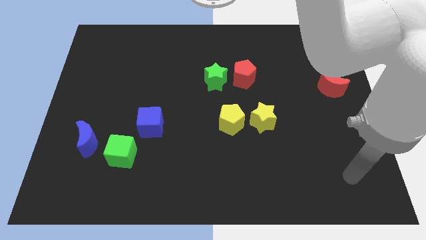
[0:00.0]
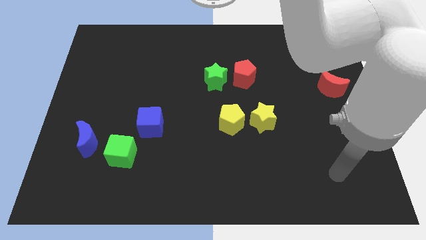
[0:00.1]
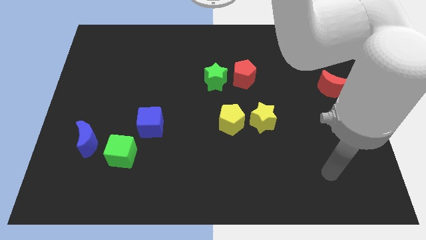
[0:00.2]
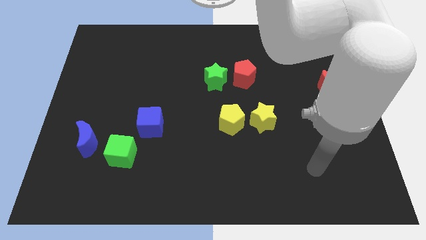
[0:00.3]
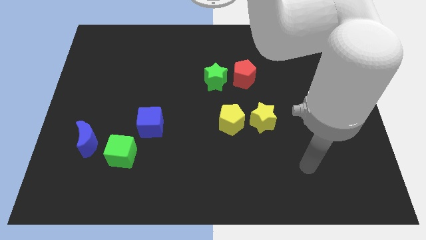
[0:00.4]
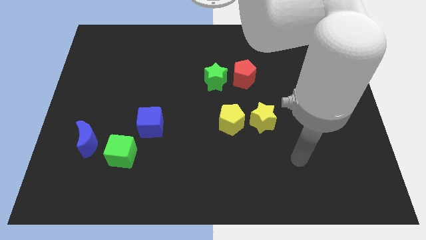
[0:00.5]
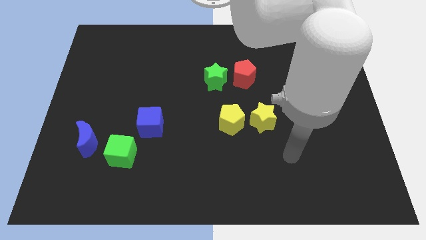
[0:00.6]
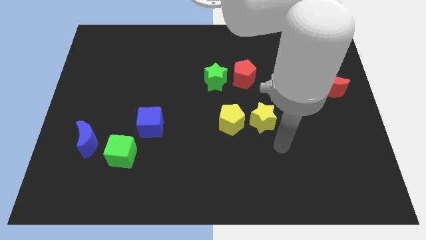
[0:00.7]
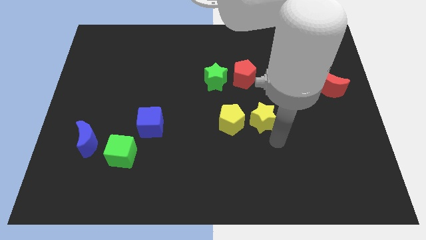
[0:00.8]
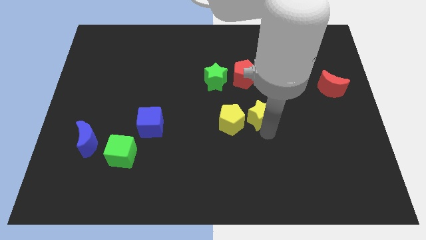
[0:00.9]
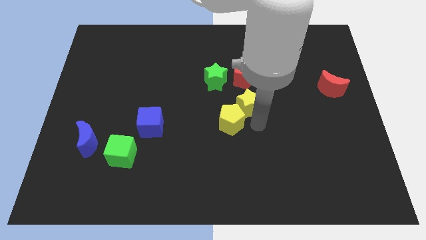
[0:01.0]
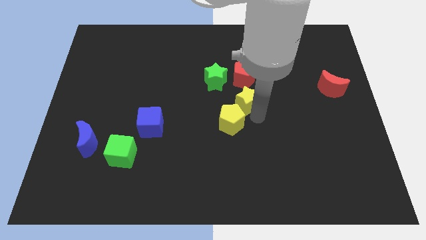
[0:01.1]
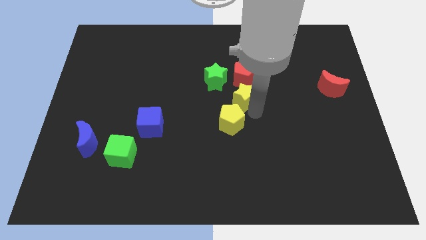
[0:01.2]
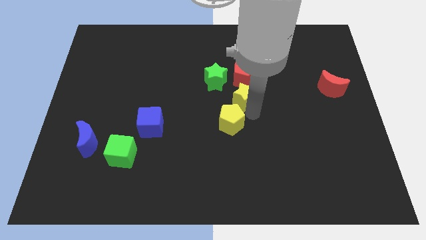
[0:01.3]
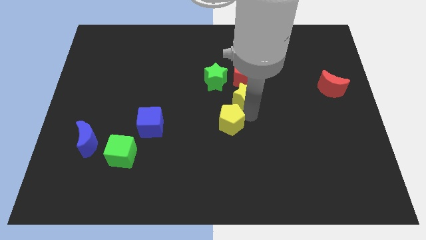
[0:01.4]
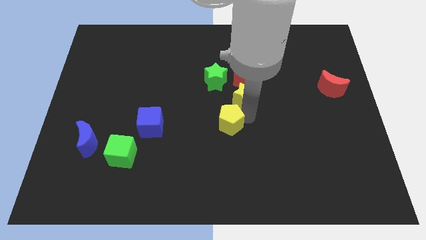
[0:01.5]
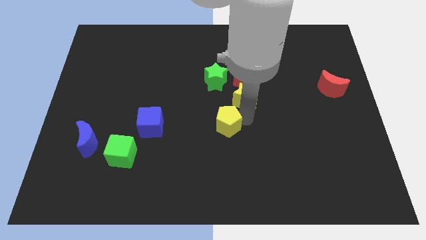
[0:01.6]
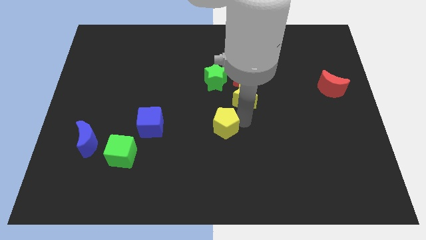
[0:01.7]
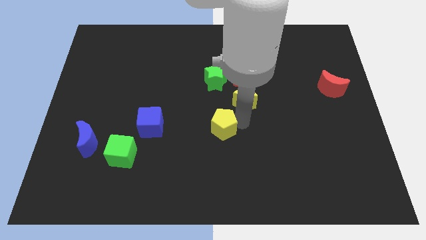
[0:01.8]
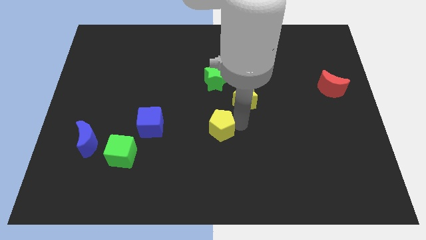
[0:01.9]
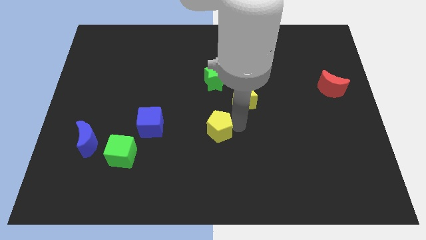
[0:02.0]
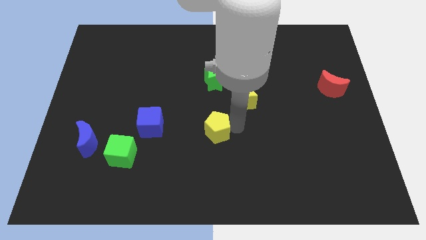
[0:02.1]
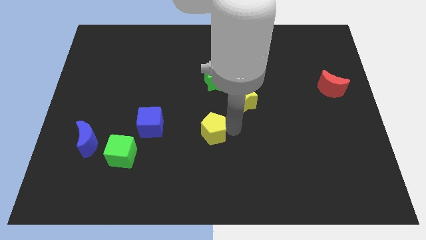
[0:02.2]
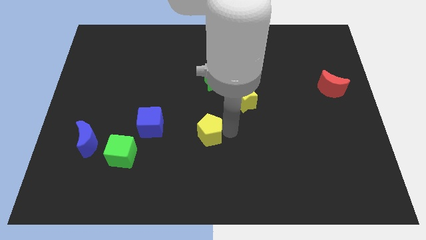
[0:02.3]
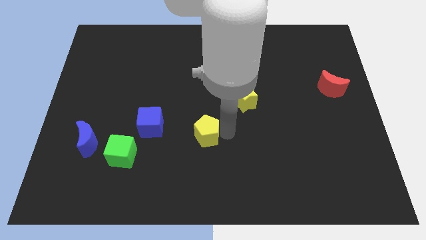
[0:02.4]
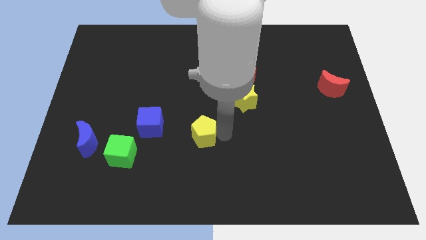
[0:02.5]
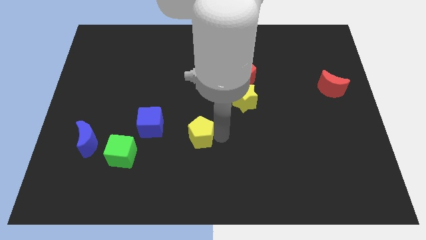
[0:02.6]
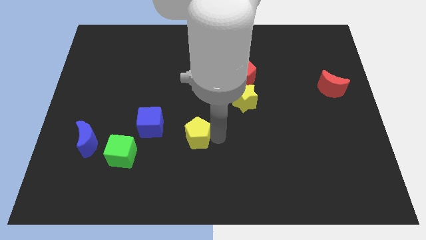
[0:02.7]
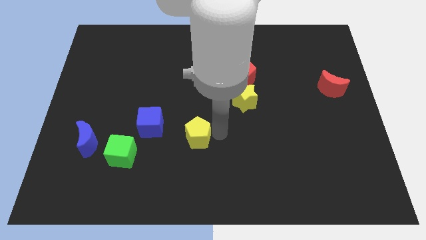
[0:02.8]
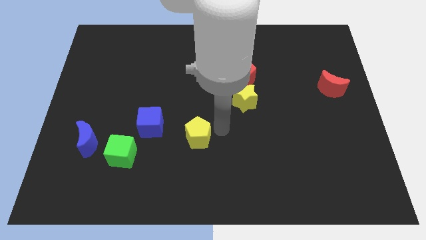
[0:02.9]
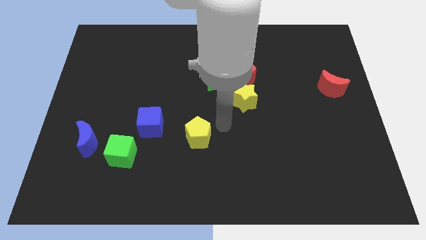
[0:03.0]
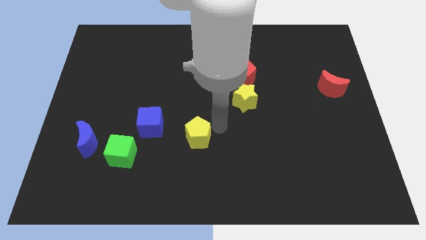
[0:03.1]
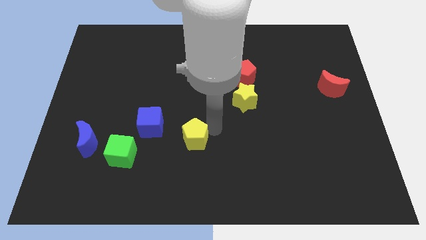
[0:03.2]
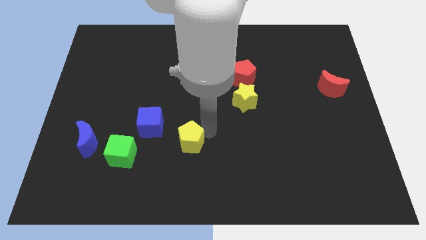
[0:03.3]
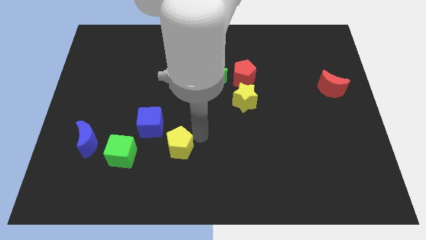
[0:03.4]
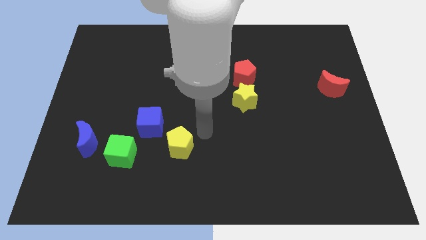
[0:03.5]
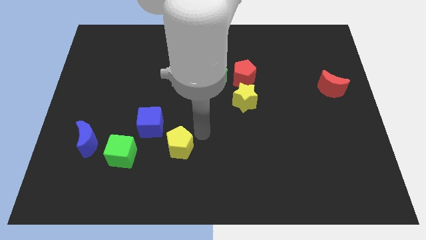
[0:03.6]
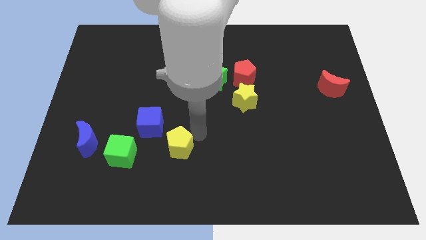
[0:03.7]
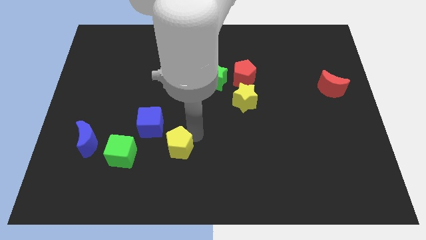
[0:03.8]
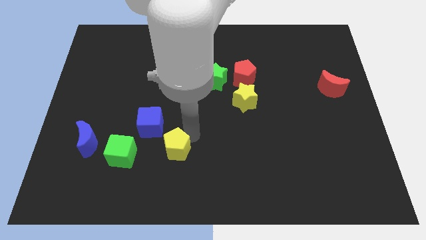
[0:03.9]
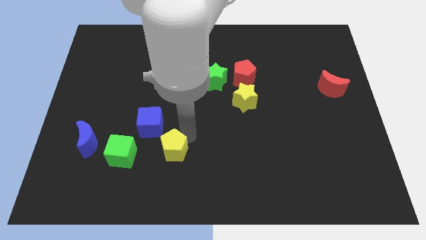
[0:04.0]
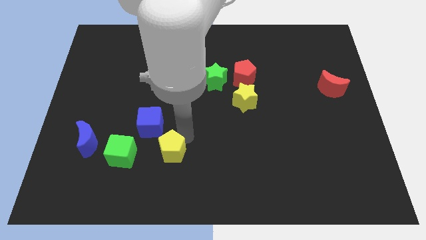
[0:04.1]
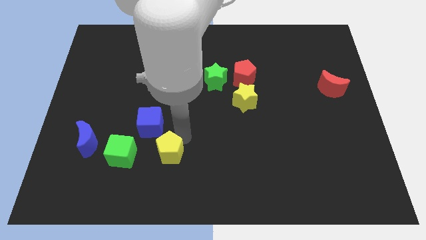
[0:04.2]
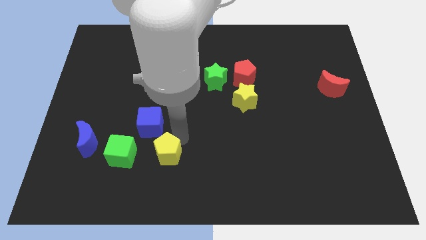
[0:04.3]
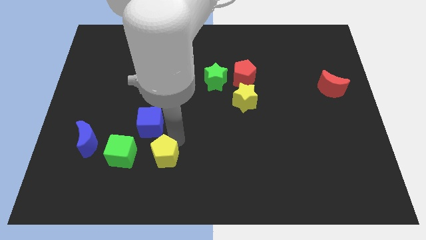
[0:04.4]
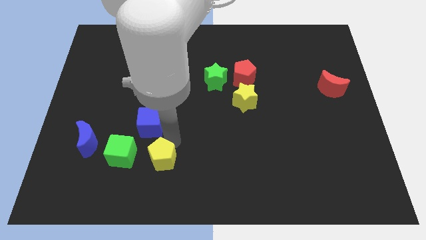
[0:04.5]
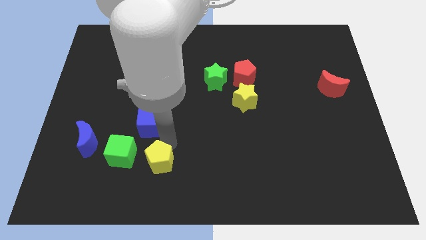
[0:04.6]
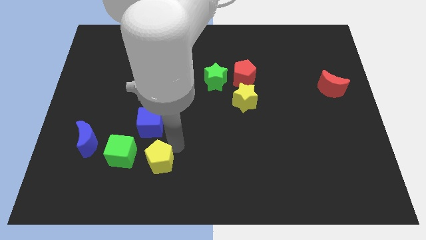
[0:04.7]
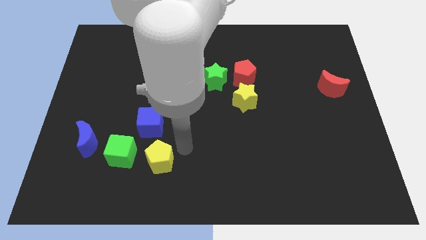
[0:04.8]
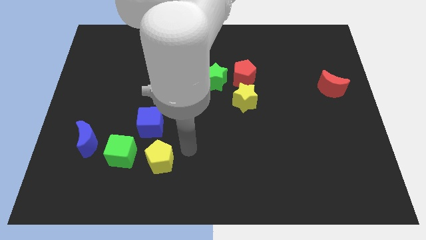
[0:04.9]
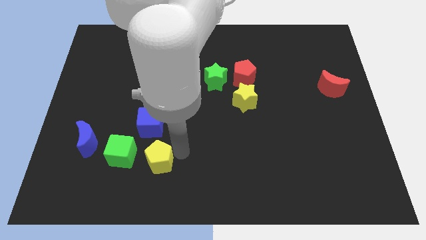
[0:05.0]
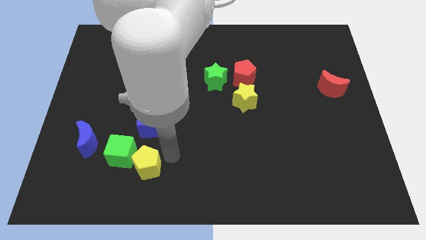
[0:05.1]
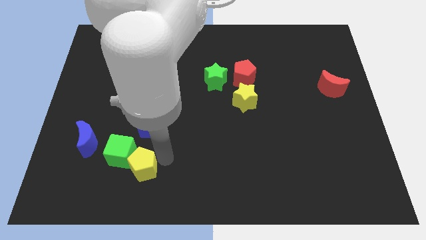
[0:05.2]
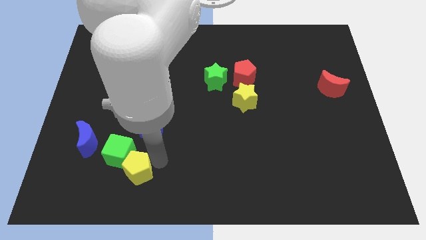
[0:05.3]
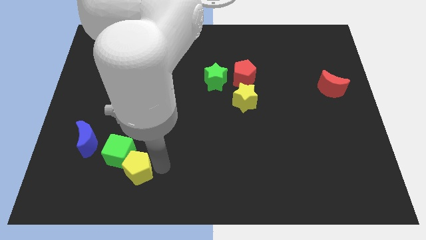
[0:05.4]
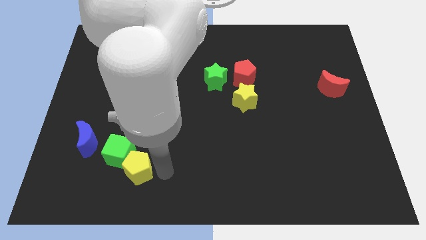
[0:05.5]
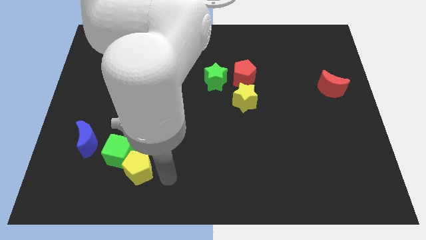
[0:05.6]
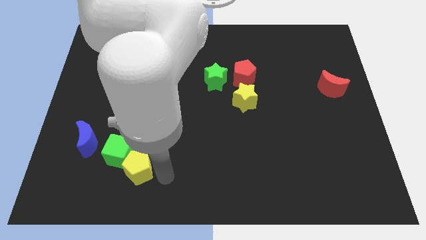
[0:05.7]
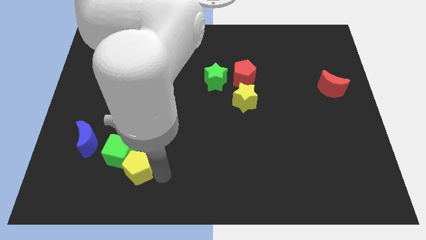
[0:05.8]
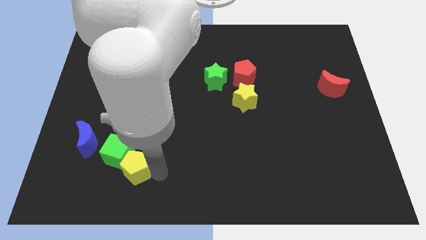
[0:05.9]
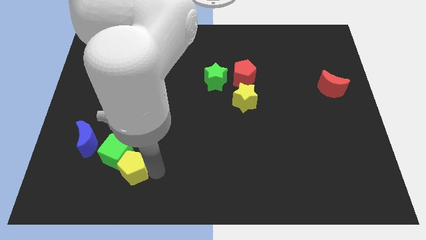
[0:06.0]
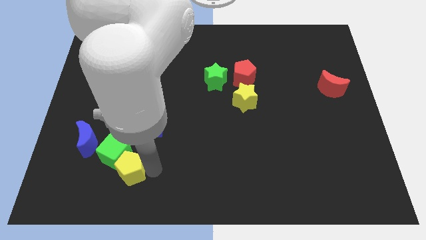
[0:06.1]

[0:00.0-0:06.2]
move the yellow pentagon to the bottom right of the blue moon
